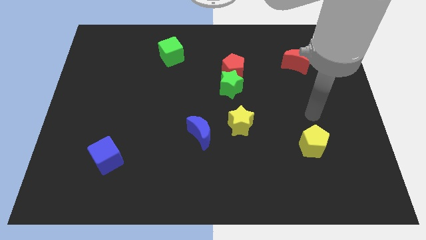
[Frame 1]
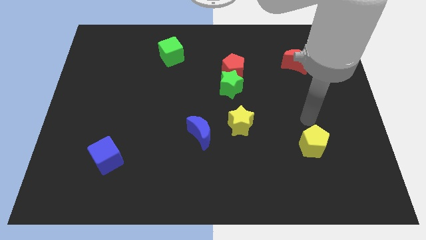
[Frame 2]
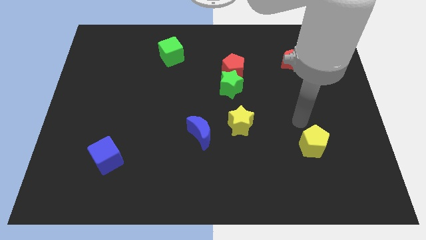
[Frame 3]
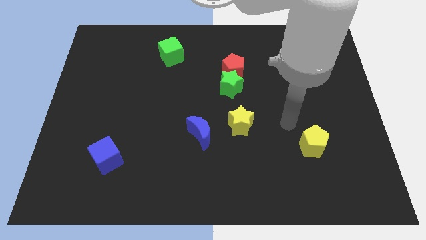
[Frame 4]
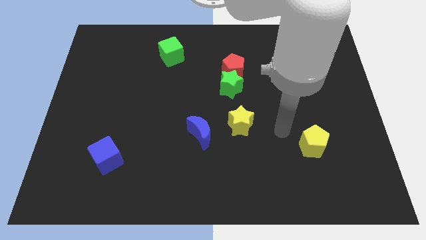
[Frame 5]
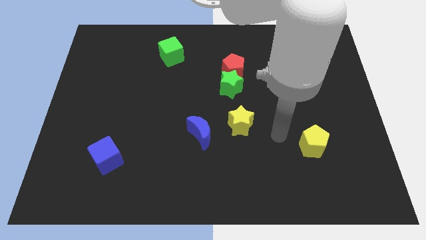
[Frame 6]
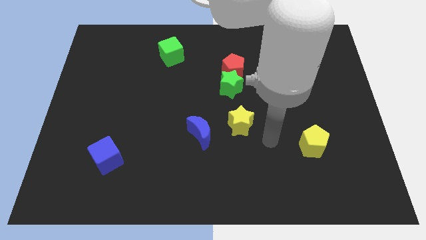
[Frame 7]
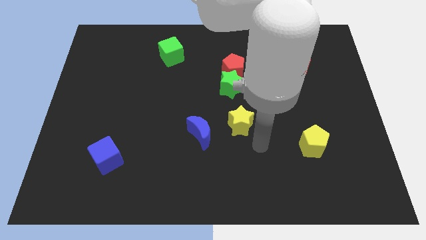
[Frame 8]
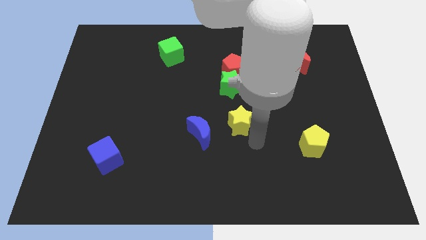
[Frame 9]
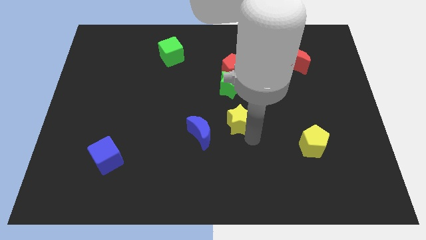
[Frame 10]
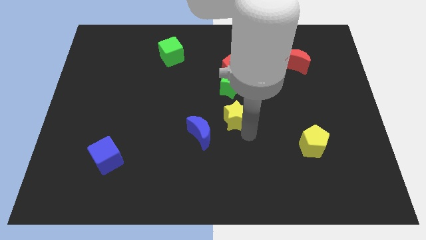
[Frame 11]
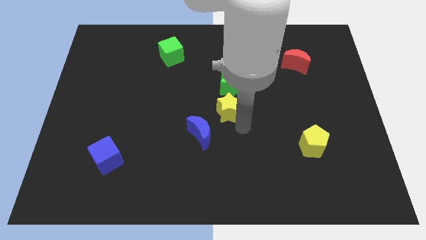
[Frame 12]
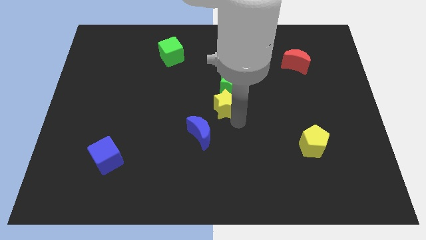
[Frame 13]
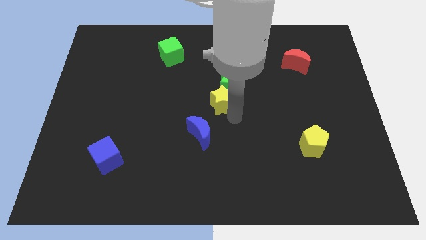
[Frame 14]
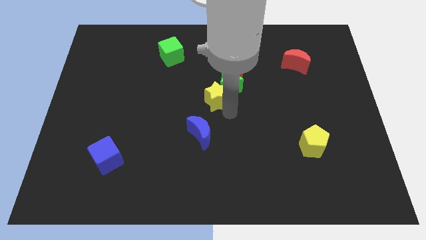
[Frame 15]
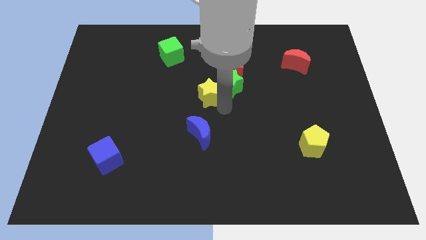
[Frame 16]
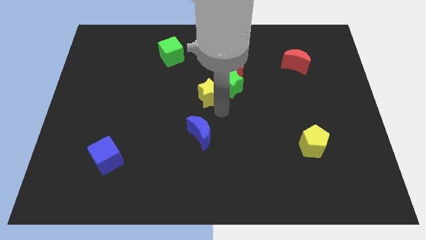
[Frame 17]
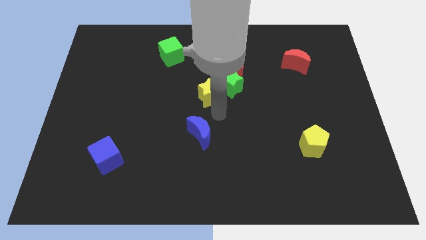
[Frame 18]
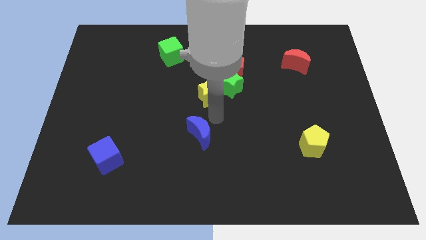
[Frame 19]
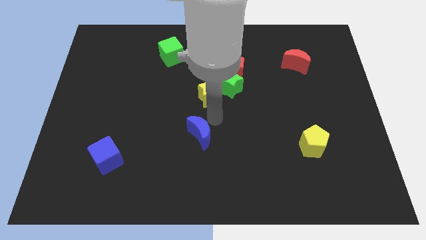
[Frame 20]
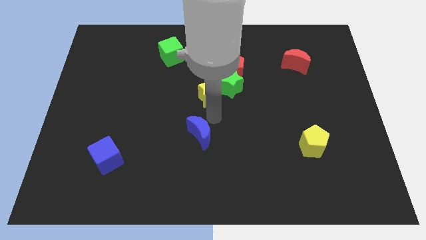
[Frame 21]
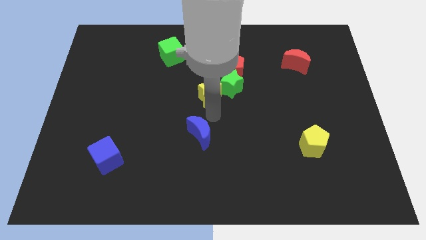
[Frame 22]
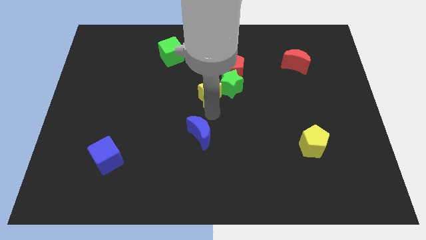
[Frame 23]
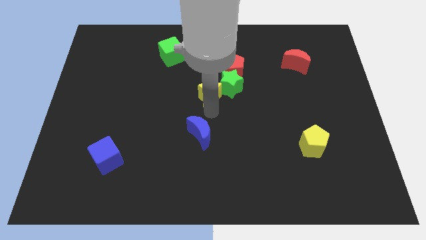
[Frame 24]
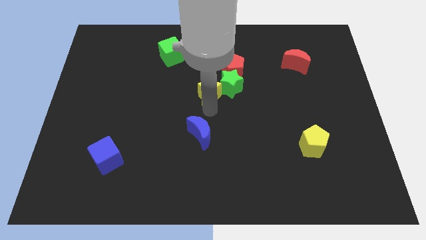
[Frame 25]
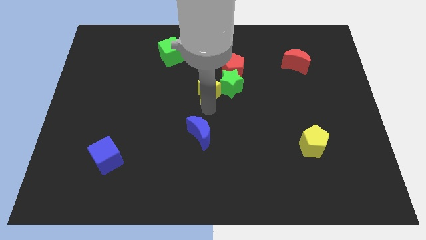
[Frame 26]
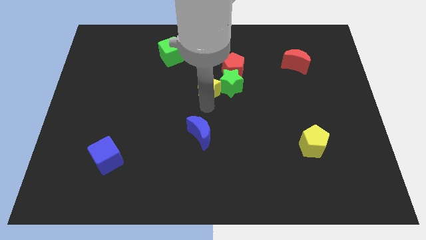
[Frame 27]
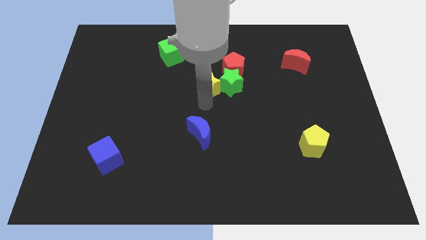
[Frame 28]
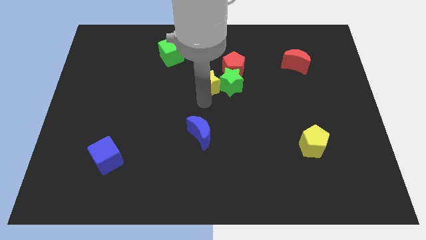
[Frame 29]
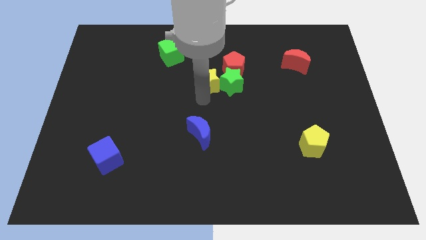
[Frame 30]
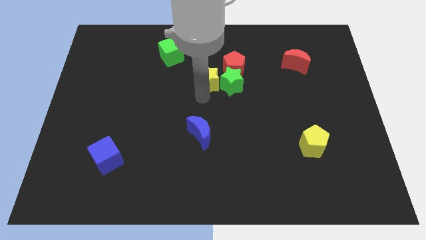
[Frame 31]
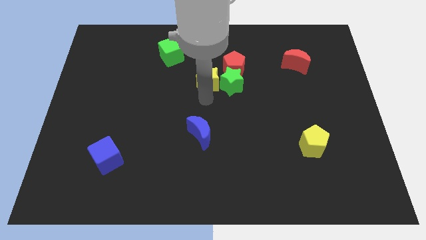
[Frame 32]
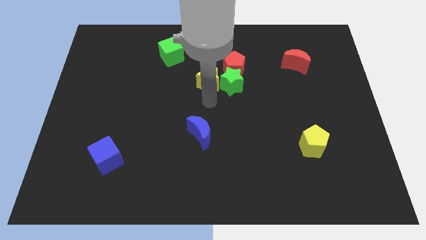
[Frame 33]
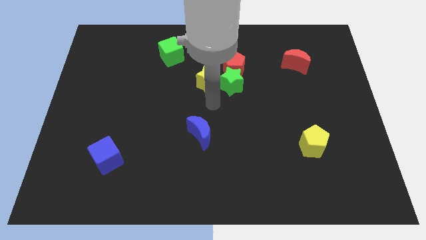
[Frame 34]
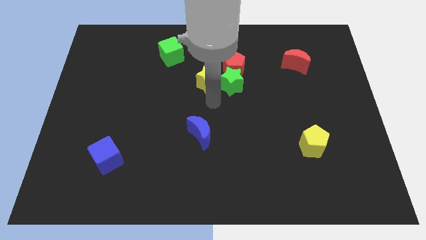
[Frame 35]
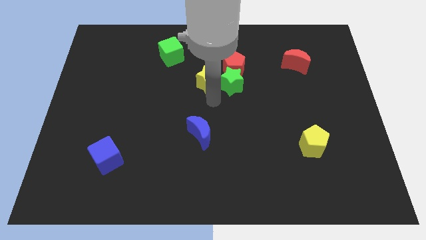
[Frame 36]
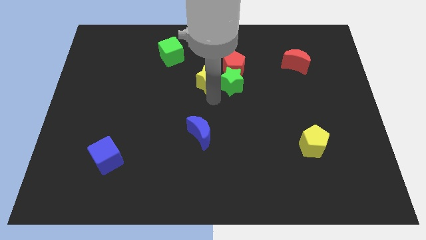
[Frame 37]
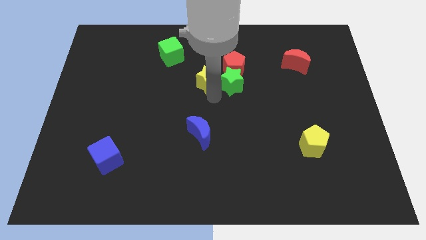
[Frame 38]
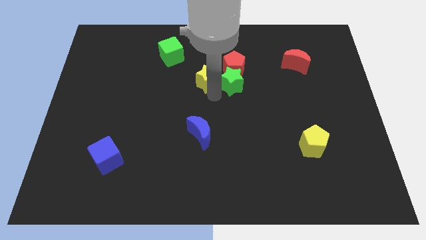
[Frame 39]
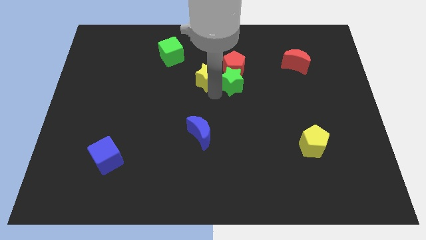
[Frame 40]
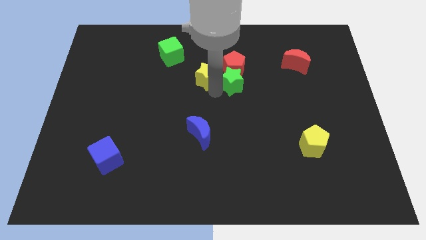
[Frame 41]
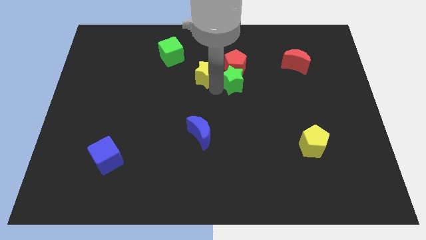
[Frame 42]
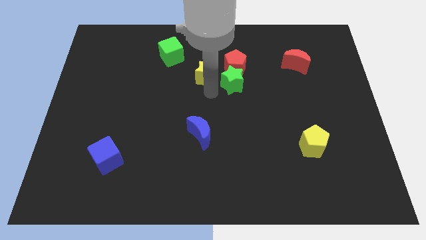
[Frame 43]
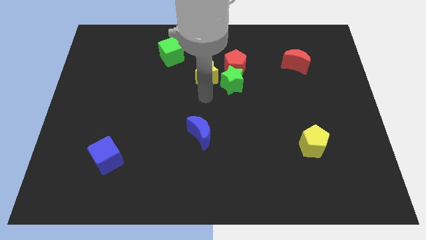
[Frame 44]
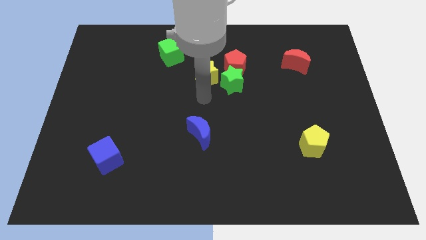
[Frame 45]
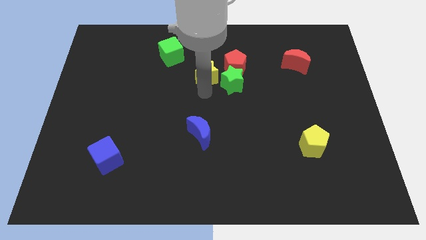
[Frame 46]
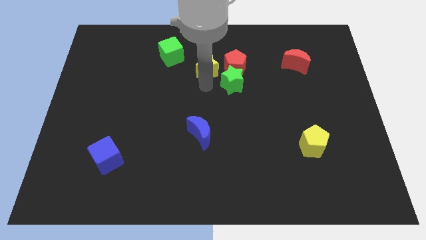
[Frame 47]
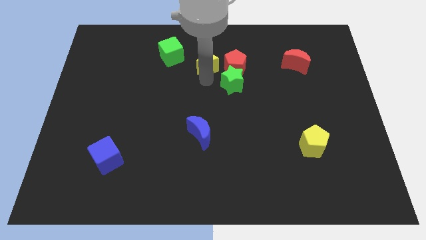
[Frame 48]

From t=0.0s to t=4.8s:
push the yellow star to the right side of the green cube

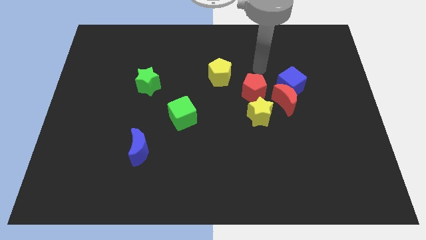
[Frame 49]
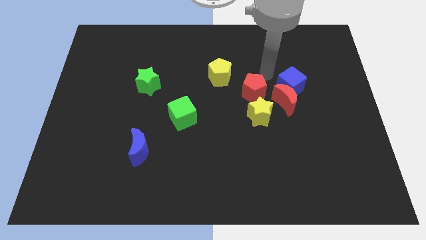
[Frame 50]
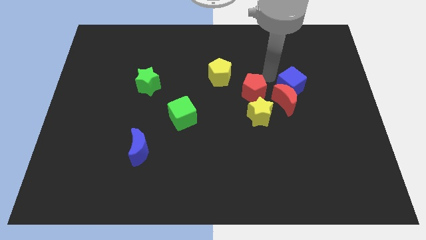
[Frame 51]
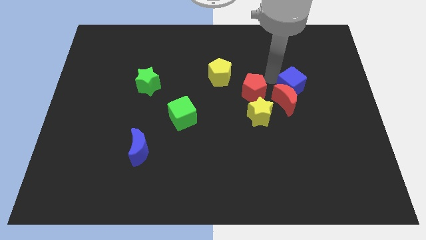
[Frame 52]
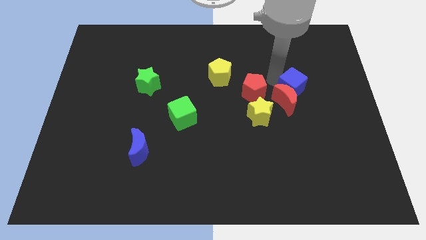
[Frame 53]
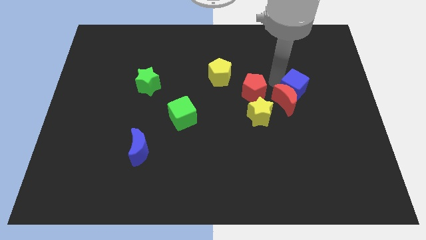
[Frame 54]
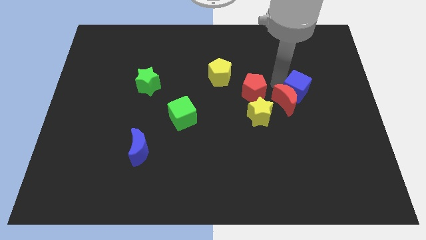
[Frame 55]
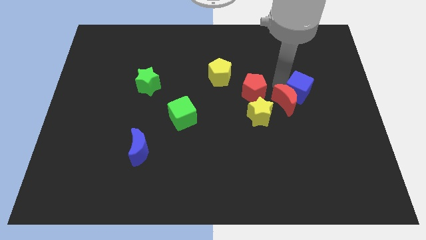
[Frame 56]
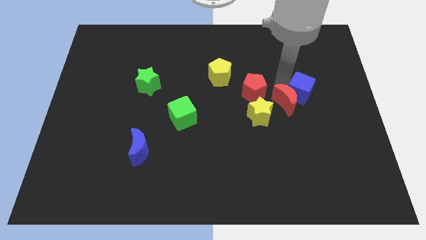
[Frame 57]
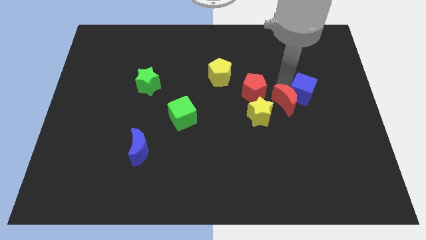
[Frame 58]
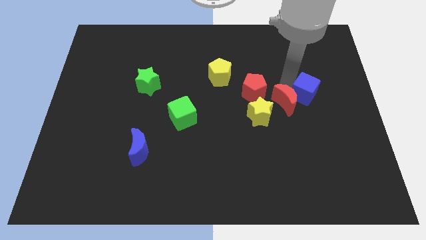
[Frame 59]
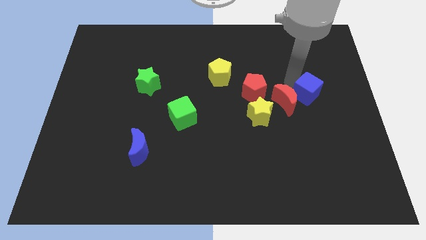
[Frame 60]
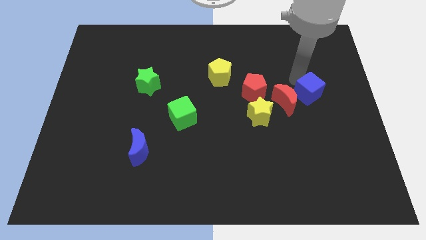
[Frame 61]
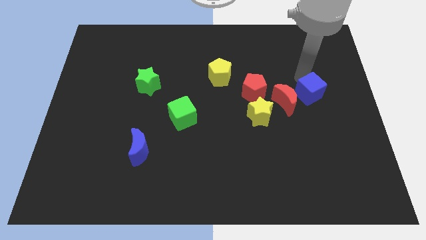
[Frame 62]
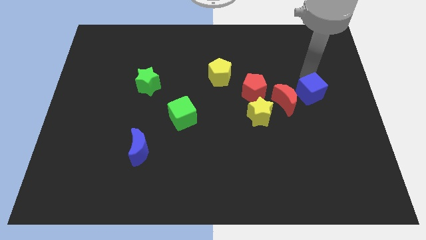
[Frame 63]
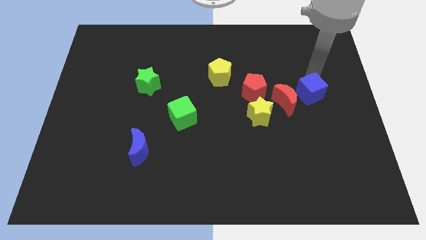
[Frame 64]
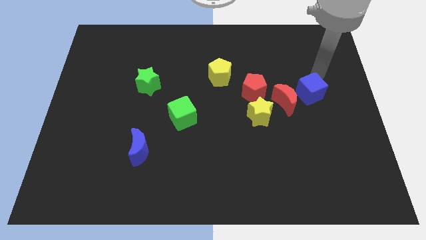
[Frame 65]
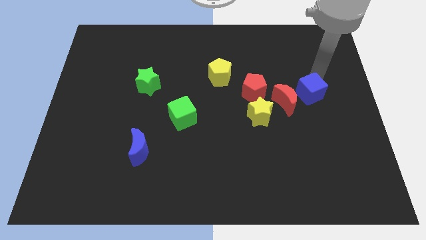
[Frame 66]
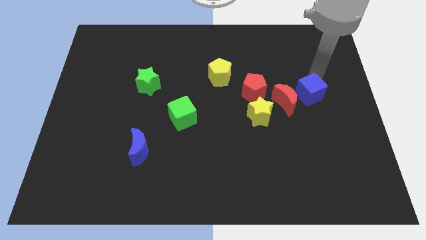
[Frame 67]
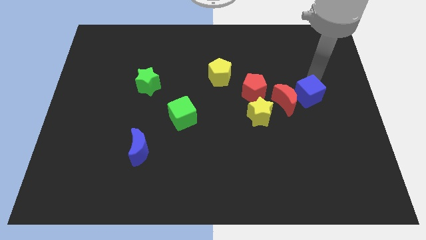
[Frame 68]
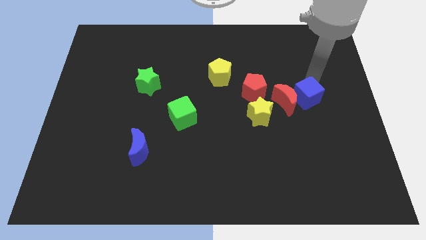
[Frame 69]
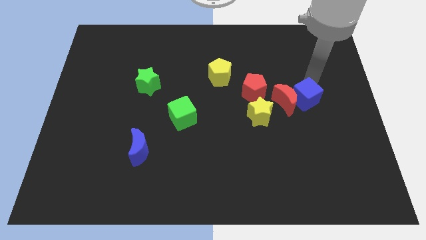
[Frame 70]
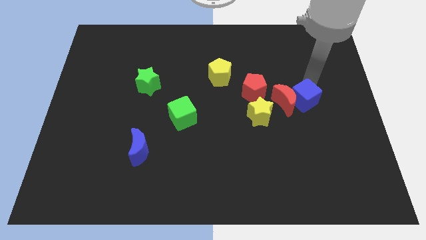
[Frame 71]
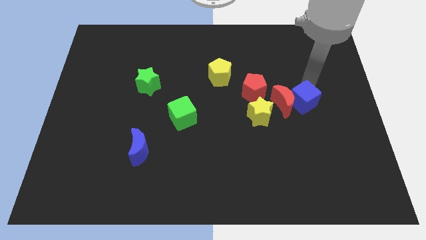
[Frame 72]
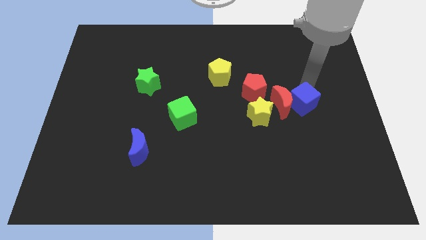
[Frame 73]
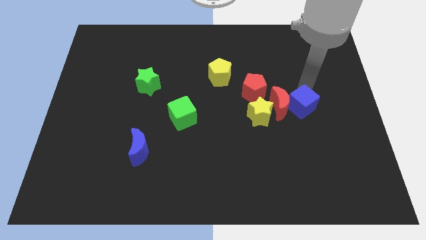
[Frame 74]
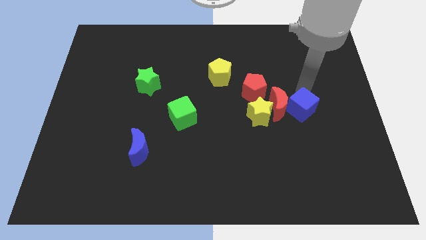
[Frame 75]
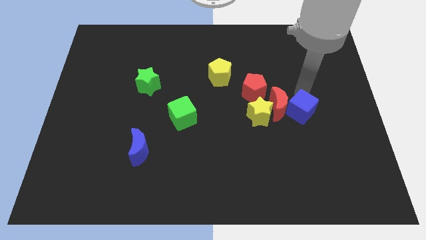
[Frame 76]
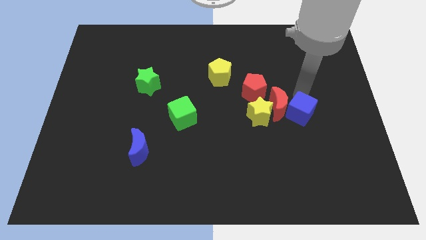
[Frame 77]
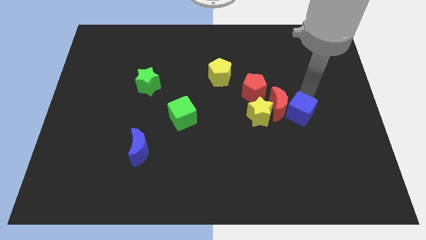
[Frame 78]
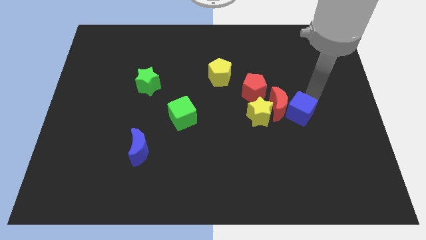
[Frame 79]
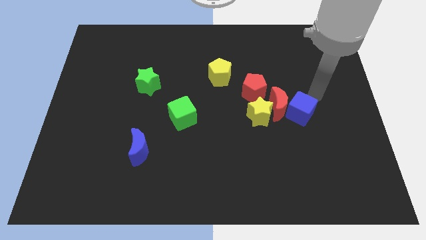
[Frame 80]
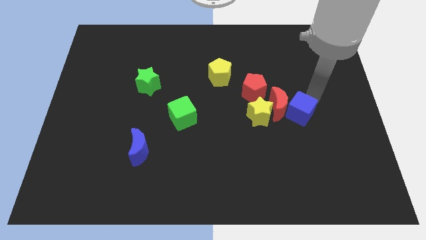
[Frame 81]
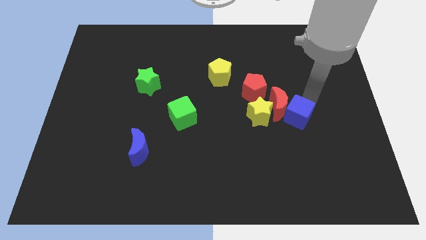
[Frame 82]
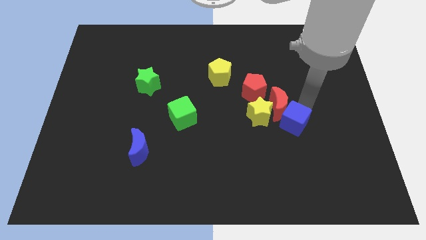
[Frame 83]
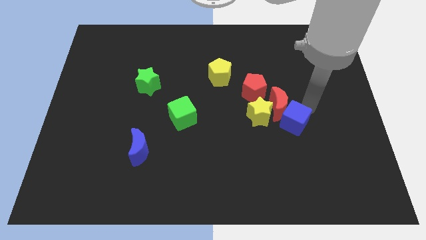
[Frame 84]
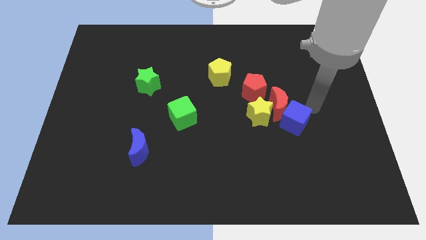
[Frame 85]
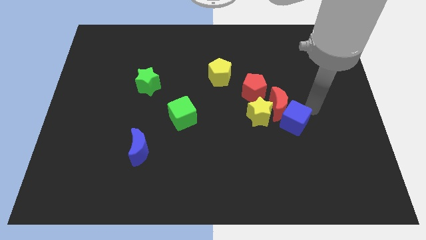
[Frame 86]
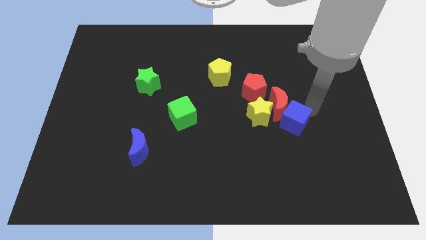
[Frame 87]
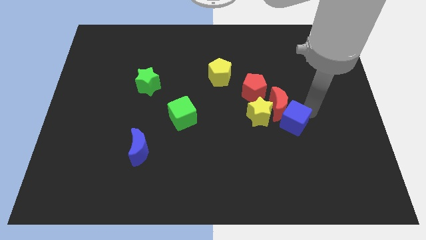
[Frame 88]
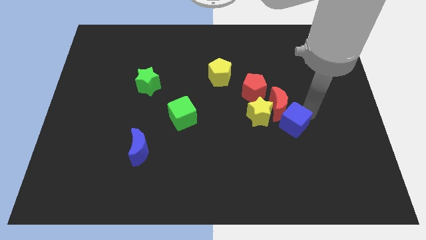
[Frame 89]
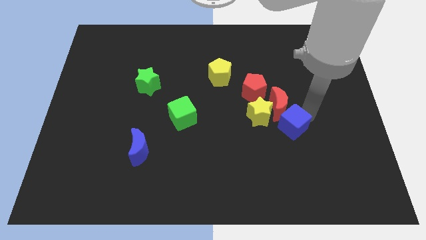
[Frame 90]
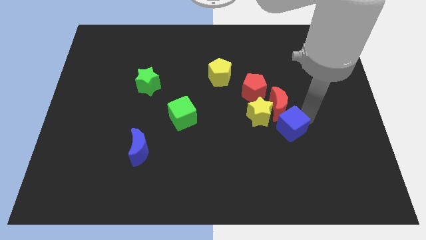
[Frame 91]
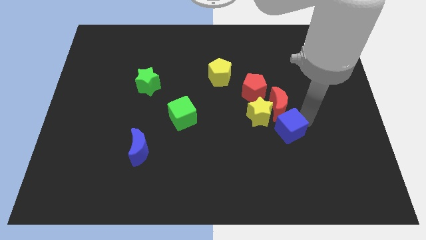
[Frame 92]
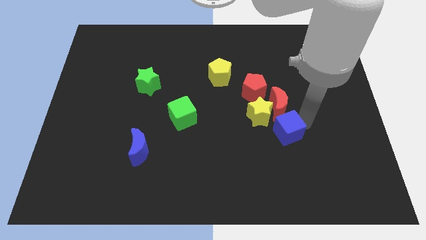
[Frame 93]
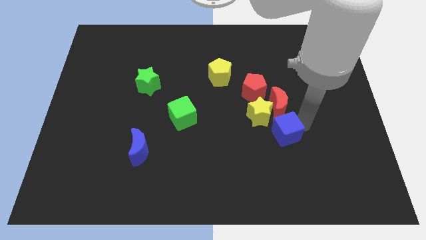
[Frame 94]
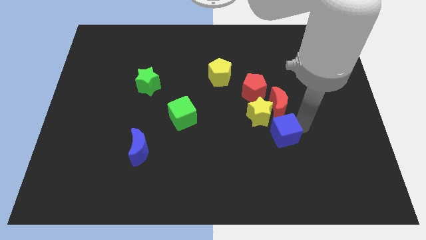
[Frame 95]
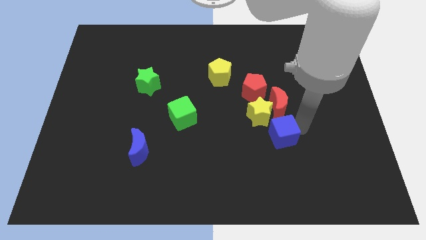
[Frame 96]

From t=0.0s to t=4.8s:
push the blue cube to the bottom of the yellow star
